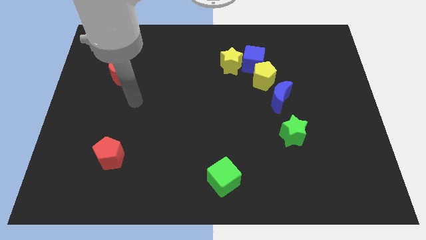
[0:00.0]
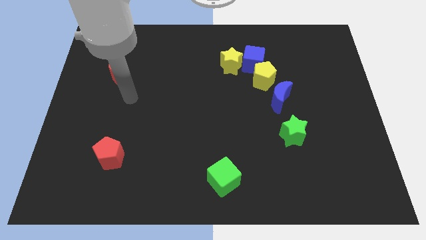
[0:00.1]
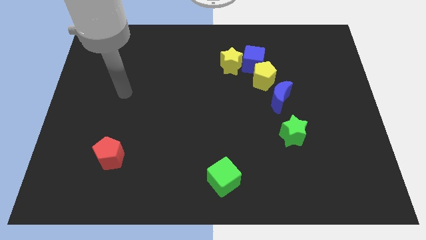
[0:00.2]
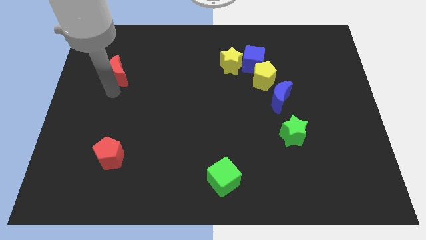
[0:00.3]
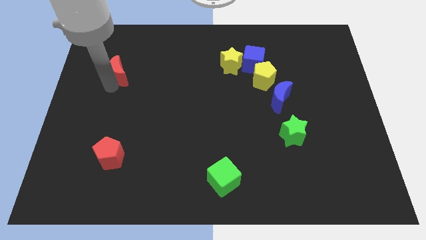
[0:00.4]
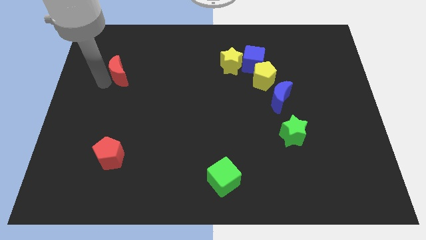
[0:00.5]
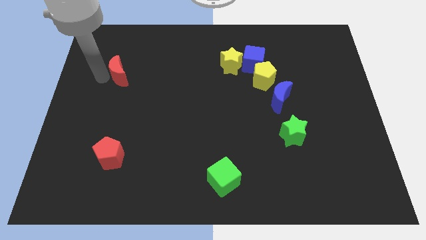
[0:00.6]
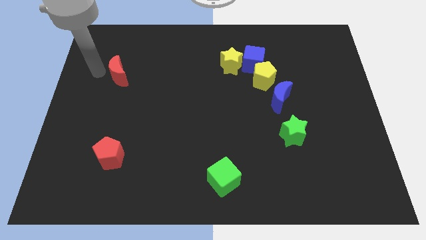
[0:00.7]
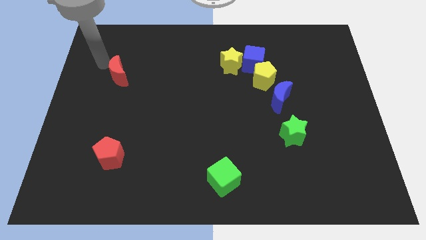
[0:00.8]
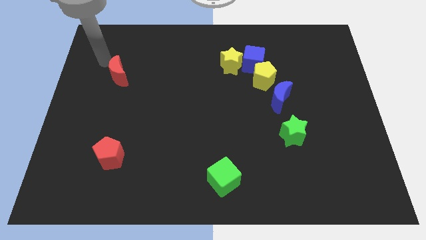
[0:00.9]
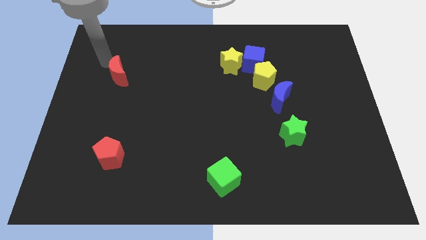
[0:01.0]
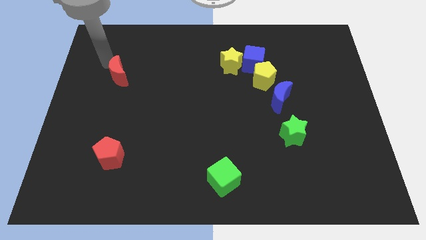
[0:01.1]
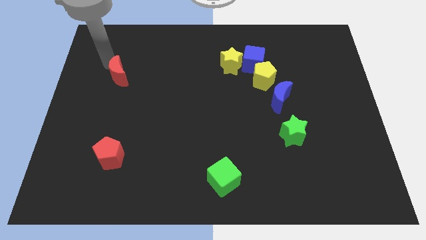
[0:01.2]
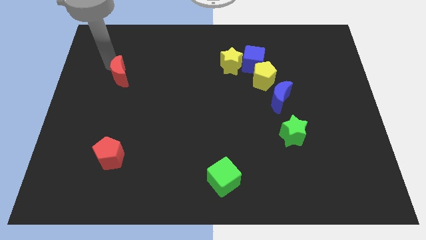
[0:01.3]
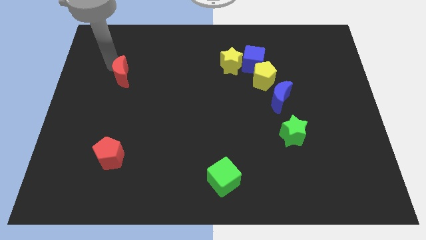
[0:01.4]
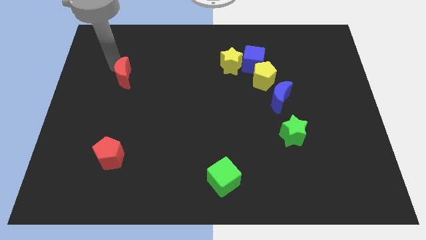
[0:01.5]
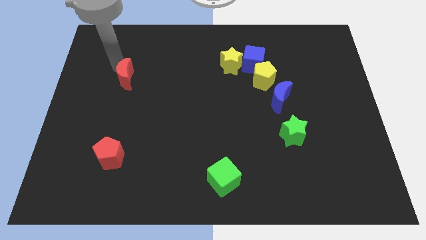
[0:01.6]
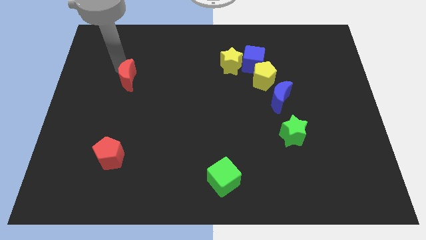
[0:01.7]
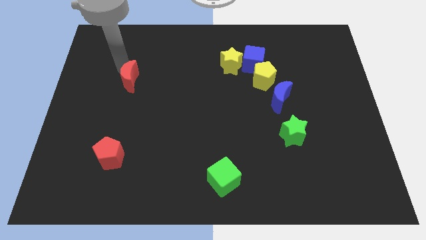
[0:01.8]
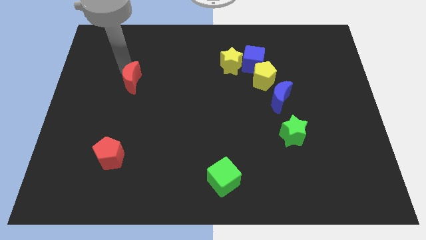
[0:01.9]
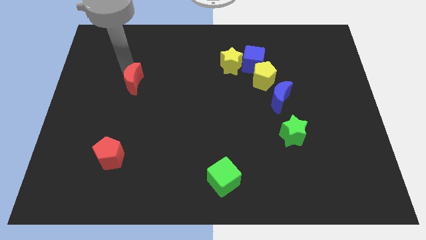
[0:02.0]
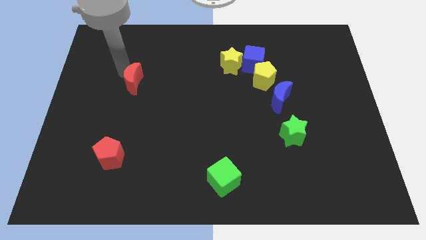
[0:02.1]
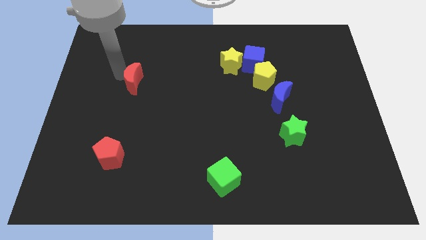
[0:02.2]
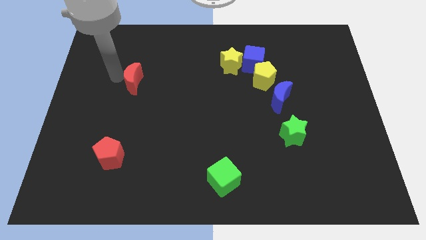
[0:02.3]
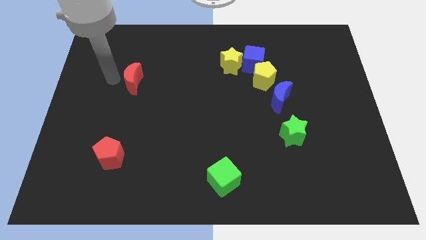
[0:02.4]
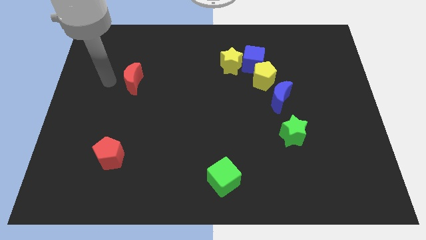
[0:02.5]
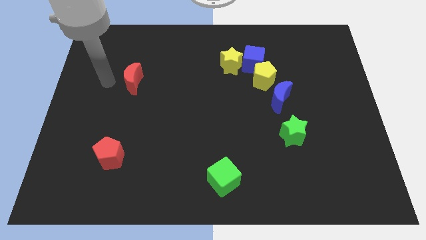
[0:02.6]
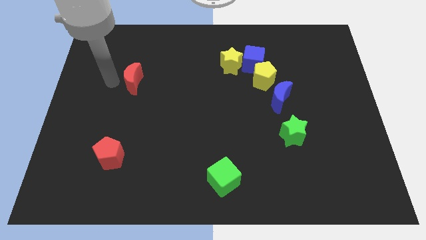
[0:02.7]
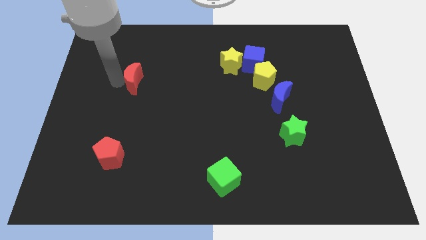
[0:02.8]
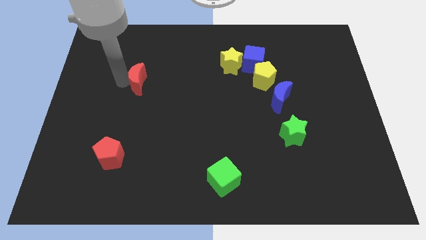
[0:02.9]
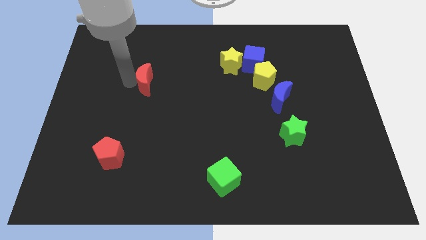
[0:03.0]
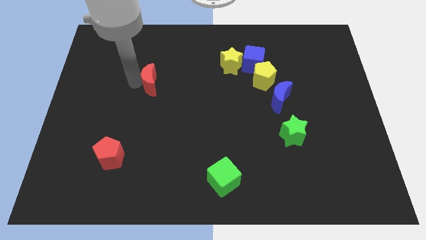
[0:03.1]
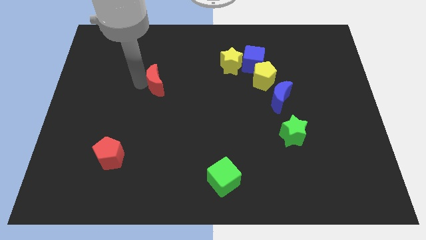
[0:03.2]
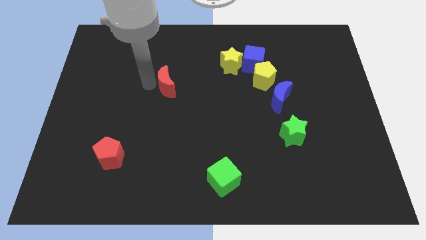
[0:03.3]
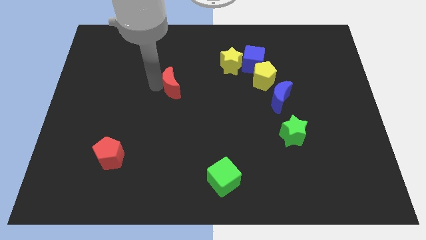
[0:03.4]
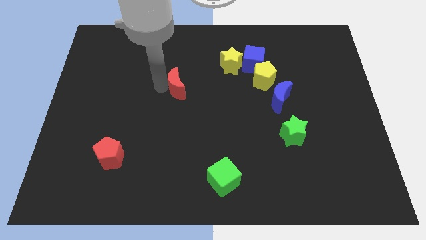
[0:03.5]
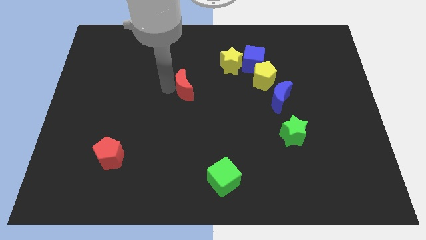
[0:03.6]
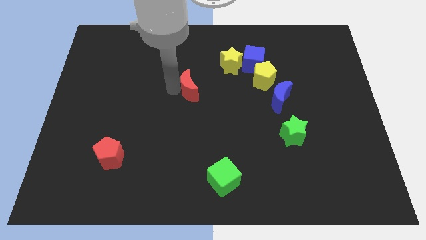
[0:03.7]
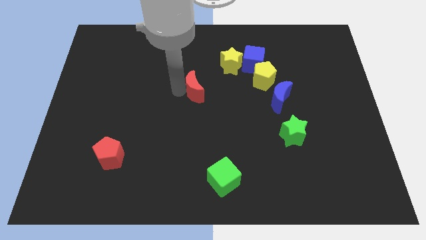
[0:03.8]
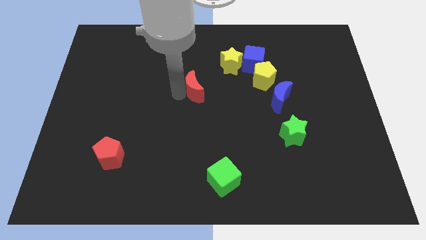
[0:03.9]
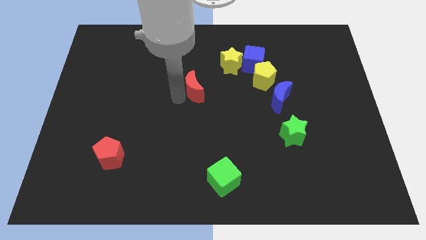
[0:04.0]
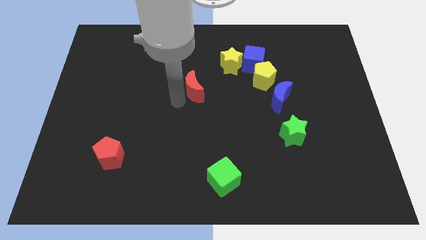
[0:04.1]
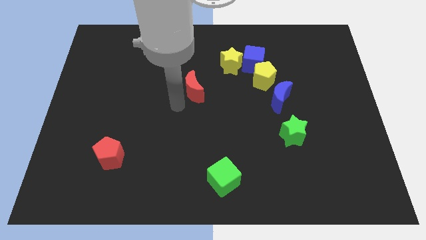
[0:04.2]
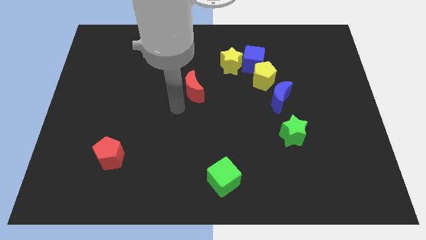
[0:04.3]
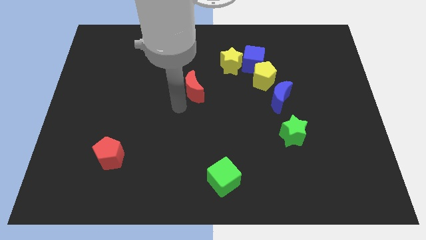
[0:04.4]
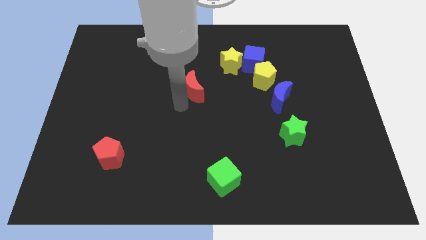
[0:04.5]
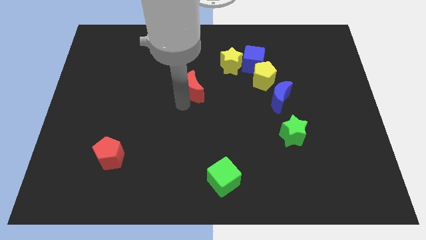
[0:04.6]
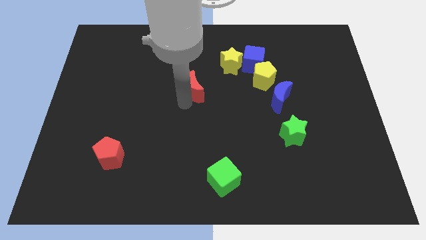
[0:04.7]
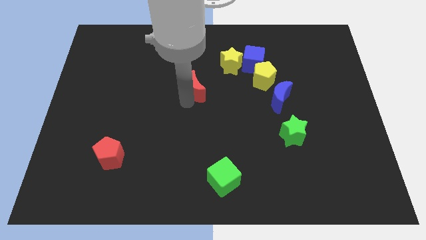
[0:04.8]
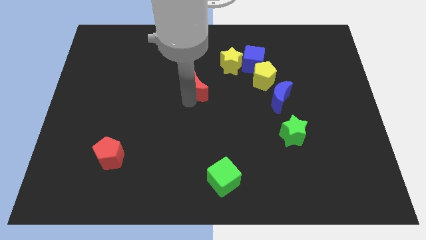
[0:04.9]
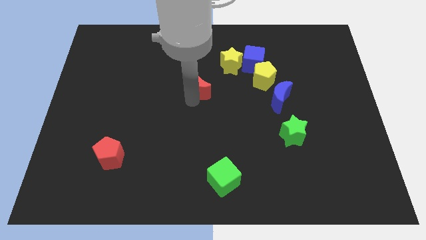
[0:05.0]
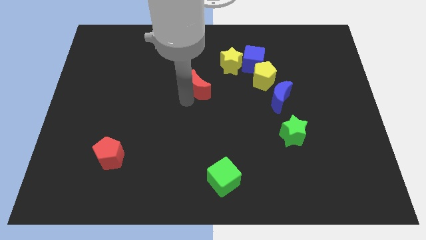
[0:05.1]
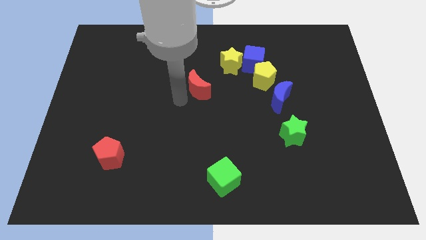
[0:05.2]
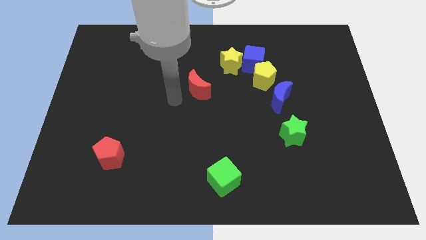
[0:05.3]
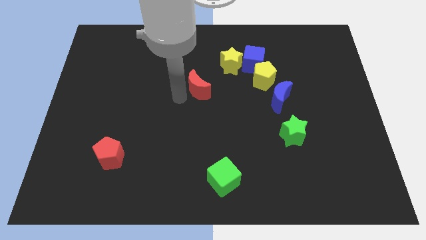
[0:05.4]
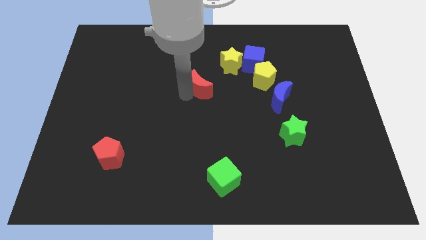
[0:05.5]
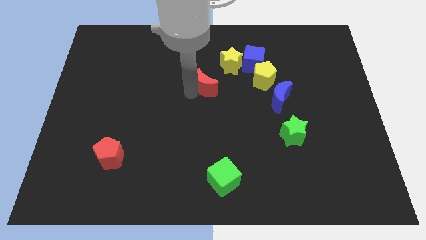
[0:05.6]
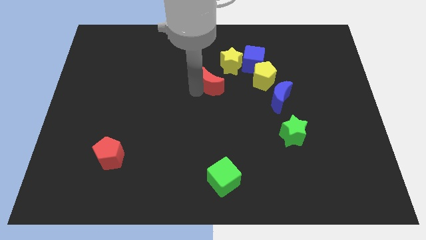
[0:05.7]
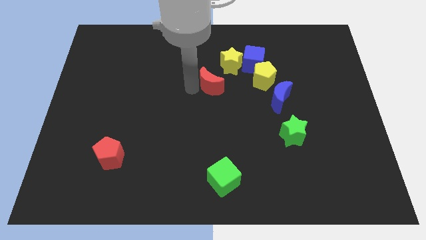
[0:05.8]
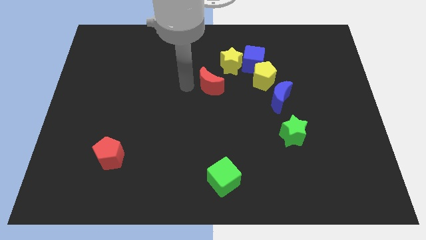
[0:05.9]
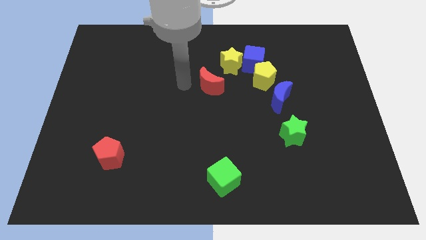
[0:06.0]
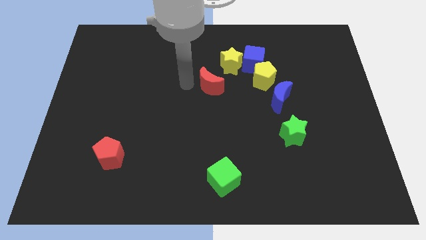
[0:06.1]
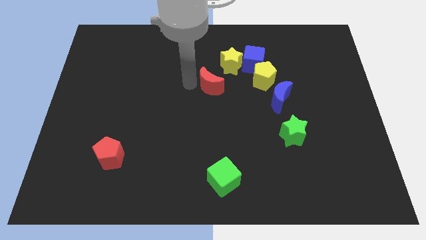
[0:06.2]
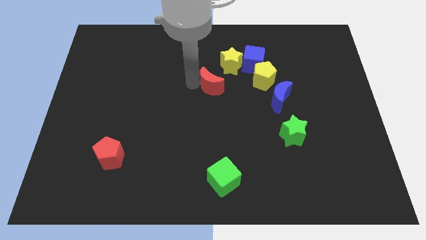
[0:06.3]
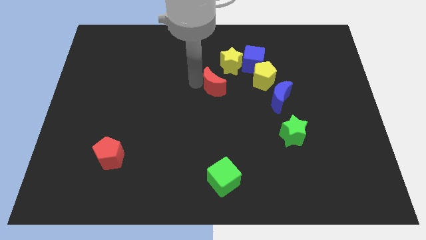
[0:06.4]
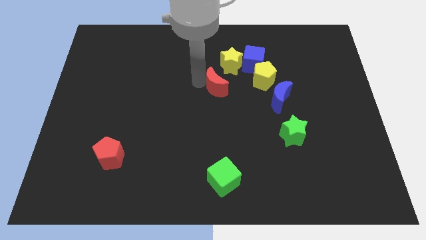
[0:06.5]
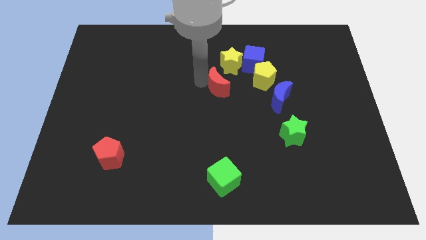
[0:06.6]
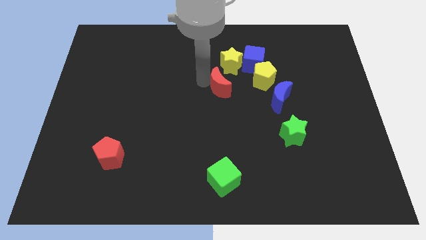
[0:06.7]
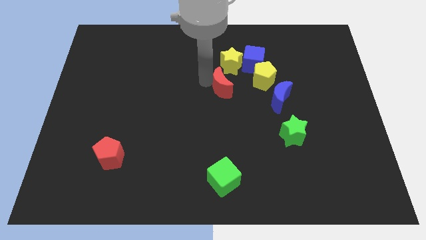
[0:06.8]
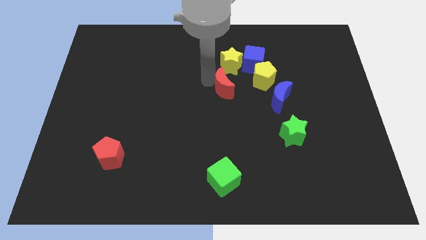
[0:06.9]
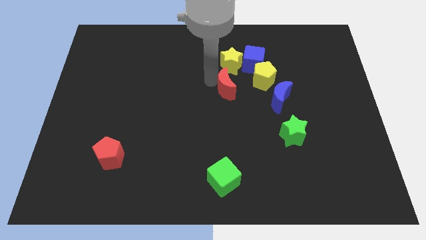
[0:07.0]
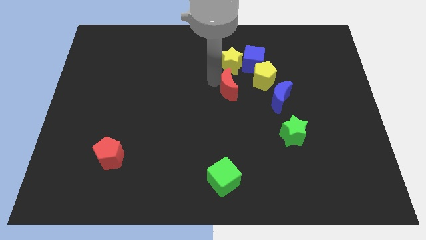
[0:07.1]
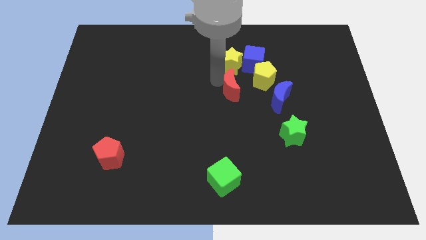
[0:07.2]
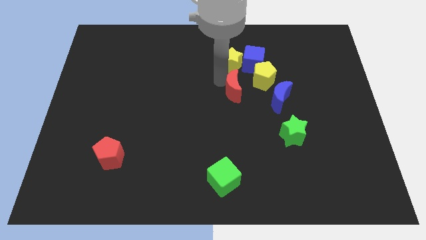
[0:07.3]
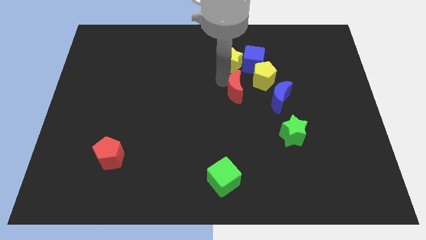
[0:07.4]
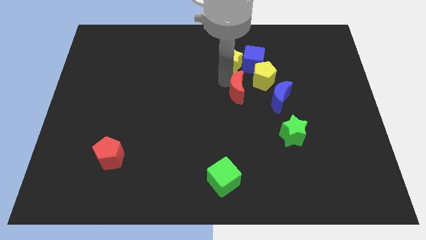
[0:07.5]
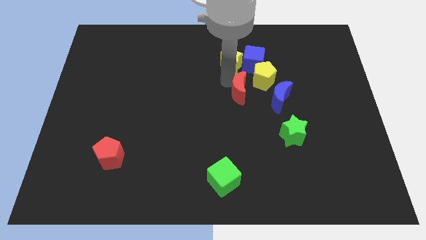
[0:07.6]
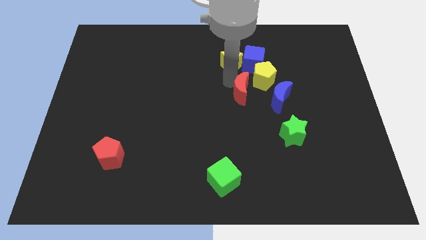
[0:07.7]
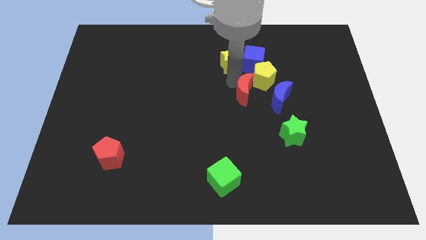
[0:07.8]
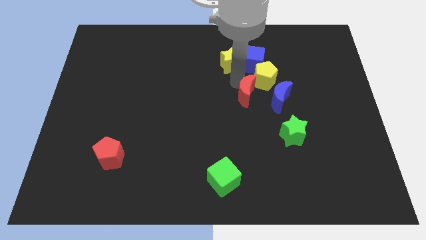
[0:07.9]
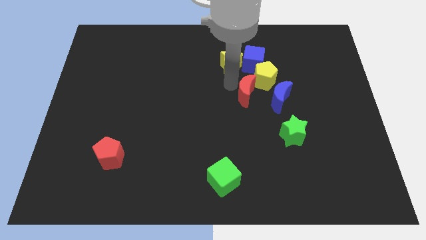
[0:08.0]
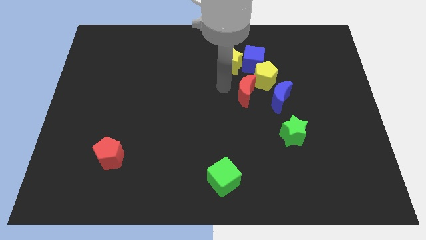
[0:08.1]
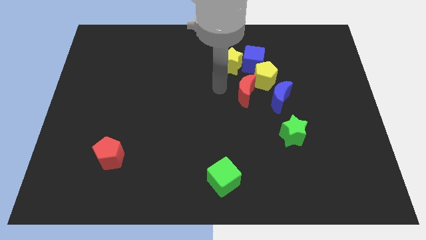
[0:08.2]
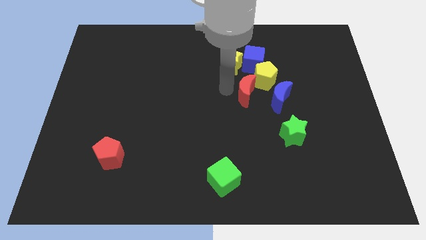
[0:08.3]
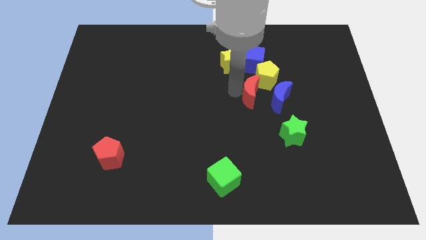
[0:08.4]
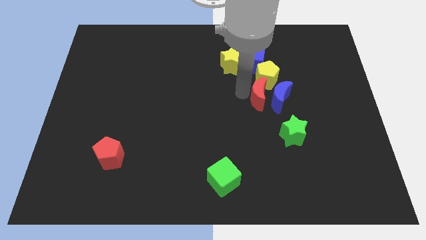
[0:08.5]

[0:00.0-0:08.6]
put the red moon next to the blue moon
